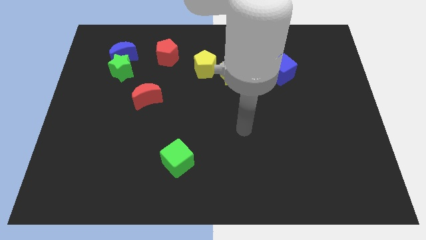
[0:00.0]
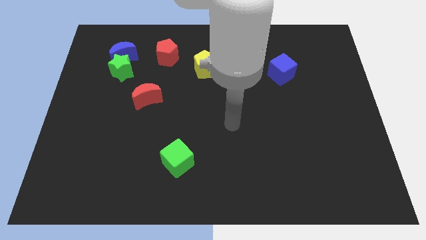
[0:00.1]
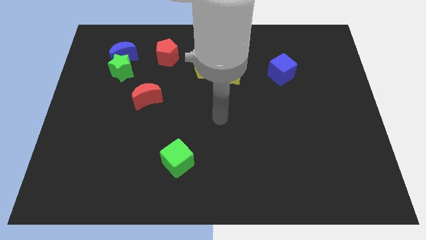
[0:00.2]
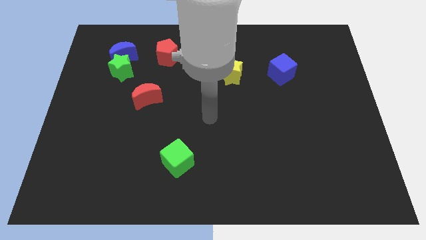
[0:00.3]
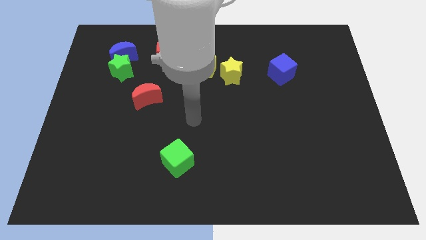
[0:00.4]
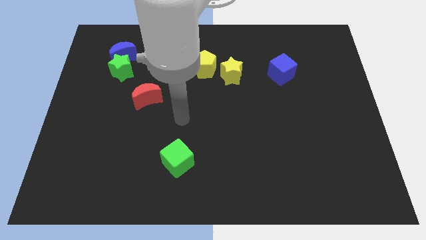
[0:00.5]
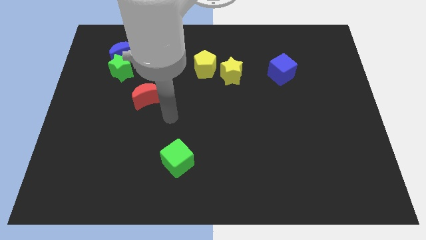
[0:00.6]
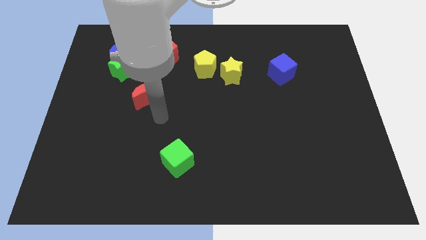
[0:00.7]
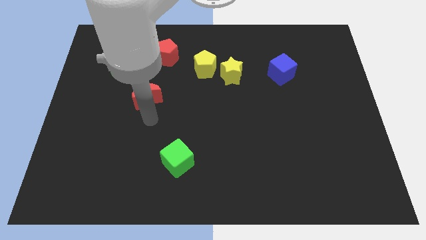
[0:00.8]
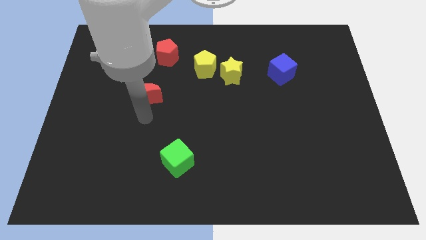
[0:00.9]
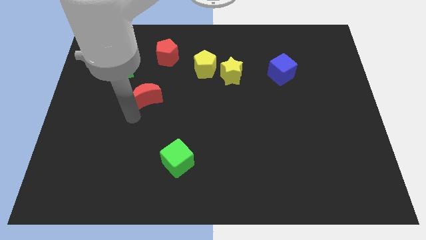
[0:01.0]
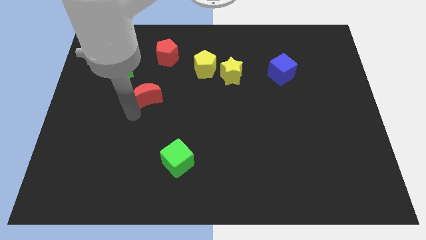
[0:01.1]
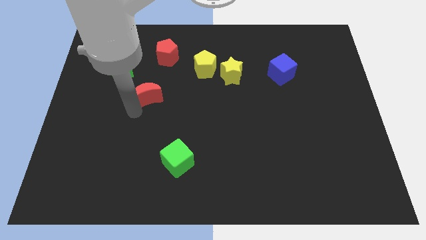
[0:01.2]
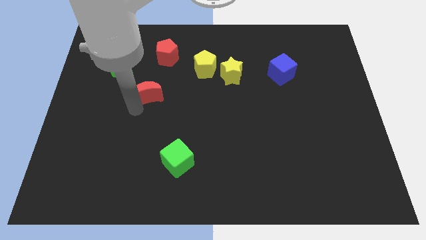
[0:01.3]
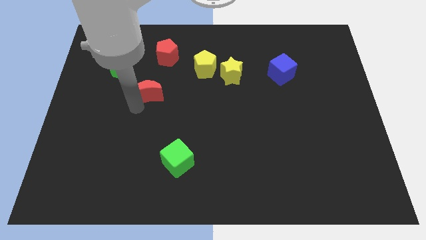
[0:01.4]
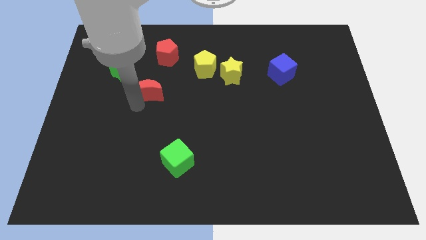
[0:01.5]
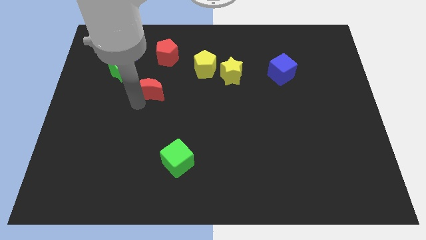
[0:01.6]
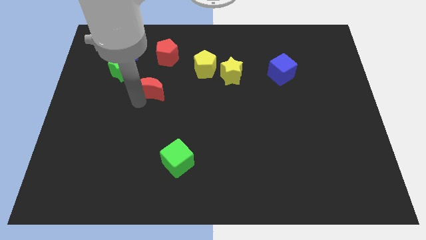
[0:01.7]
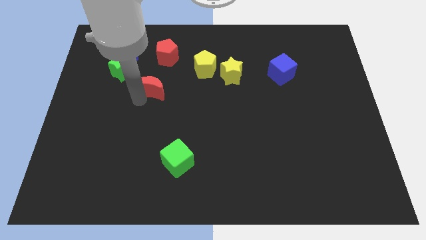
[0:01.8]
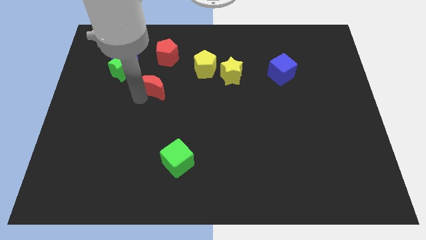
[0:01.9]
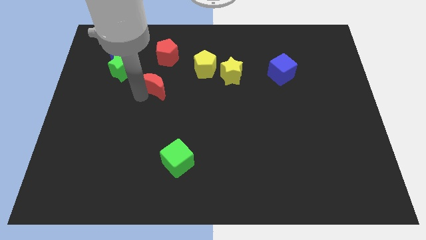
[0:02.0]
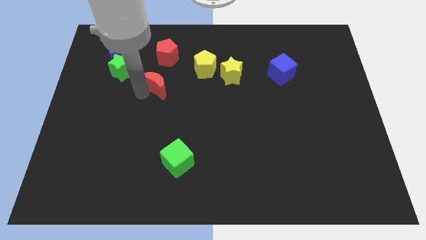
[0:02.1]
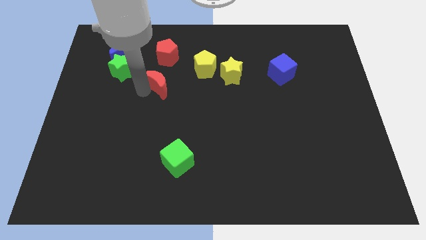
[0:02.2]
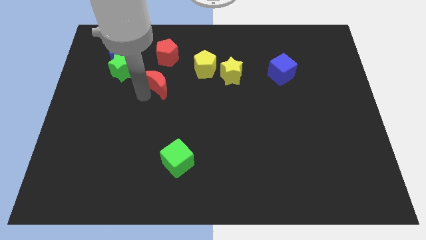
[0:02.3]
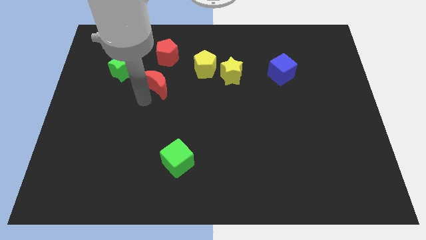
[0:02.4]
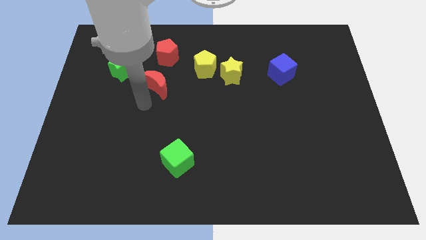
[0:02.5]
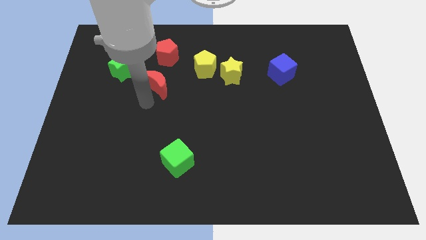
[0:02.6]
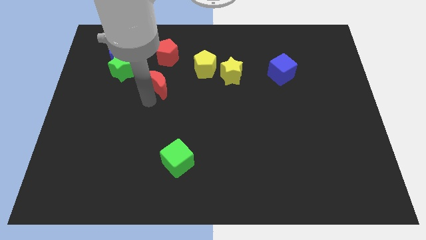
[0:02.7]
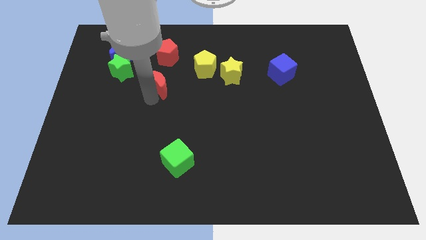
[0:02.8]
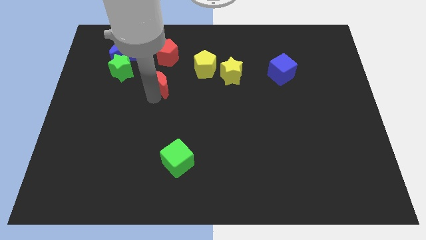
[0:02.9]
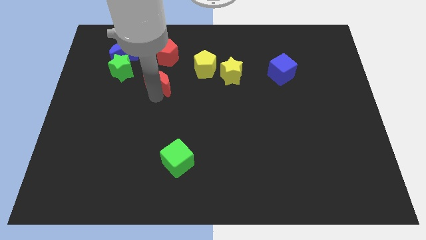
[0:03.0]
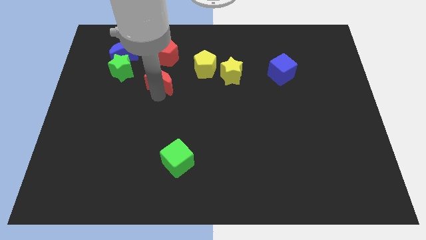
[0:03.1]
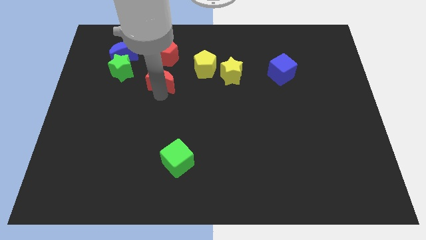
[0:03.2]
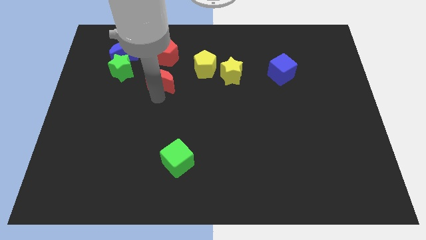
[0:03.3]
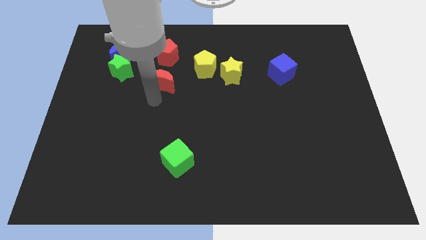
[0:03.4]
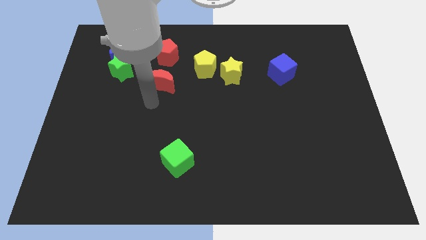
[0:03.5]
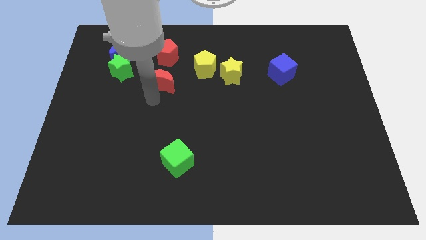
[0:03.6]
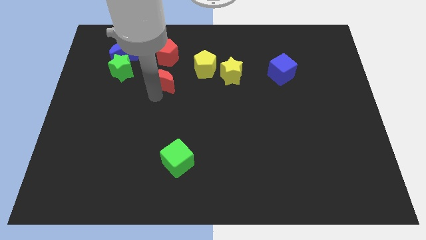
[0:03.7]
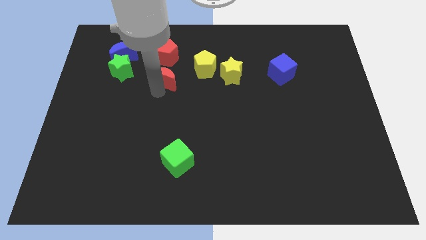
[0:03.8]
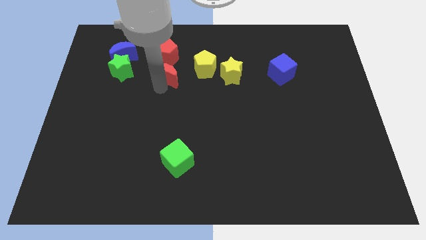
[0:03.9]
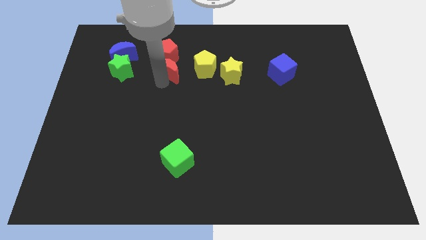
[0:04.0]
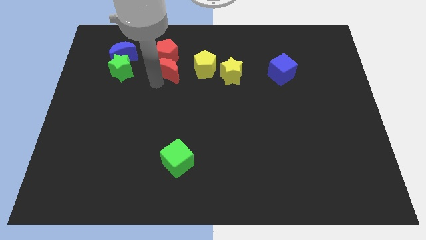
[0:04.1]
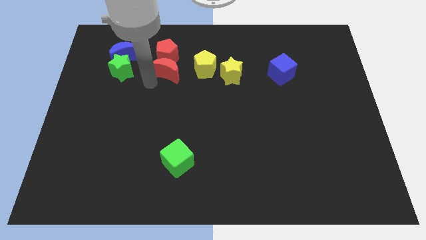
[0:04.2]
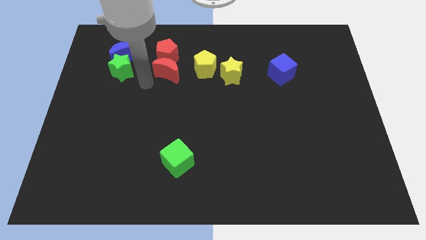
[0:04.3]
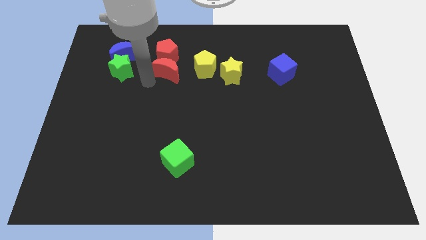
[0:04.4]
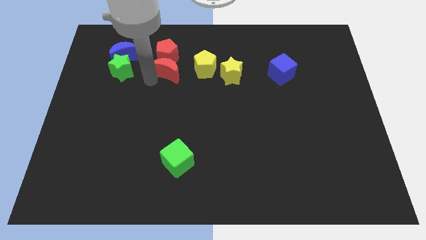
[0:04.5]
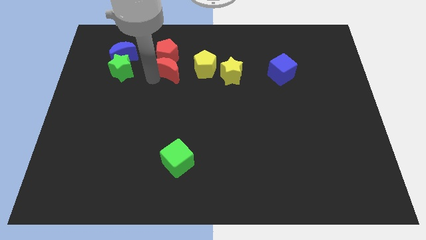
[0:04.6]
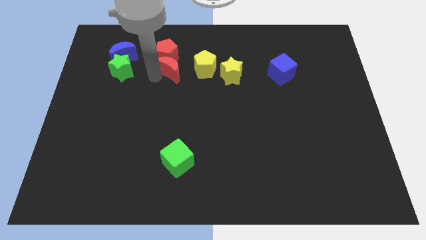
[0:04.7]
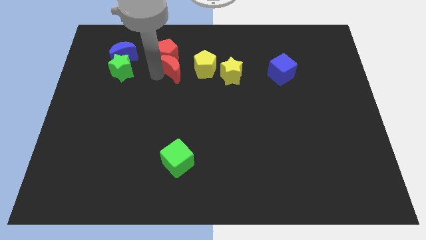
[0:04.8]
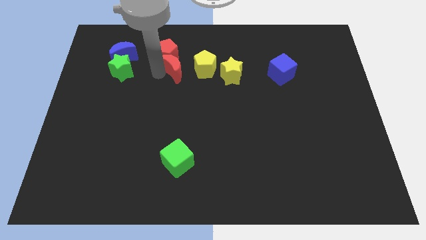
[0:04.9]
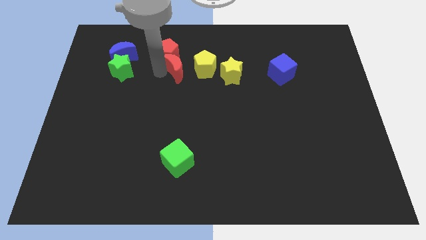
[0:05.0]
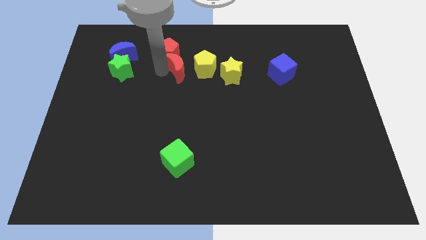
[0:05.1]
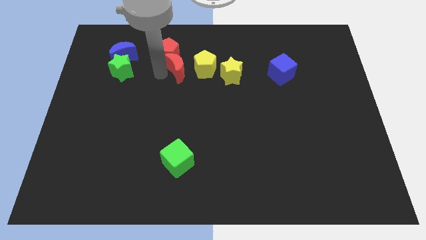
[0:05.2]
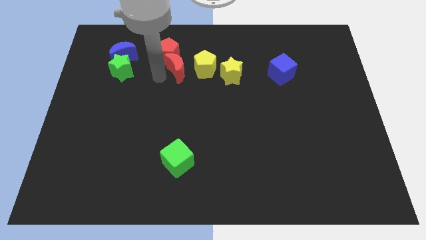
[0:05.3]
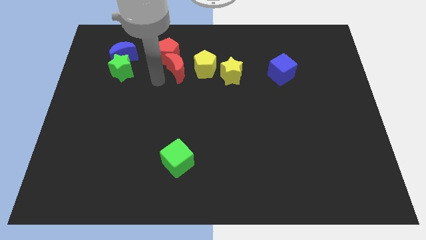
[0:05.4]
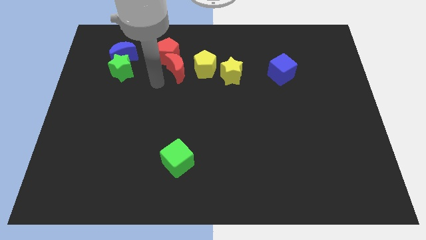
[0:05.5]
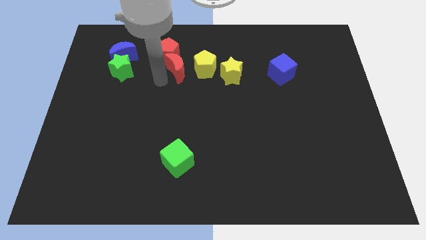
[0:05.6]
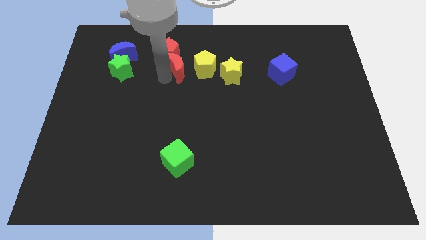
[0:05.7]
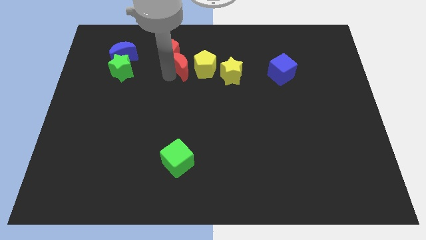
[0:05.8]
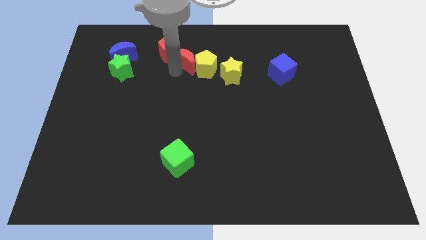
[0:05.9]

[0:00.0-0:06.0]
slide the red moon to the right side of the red pentagon

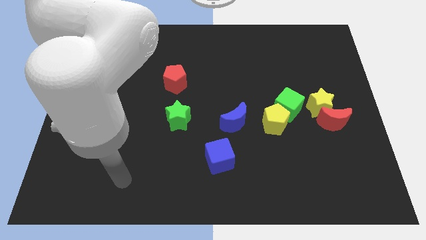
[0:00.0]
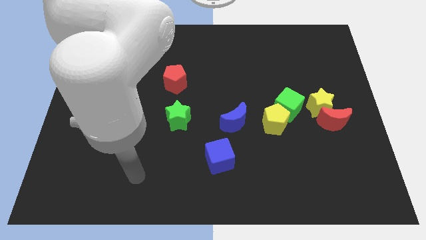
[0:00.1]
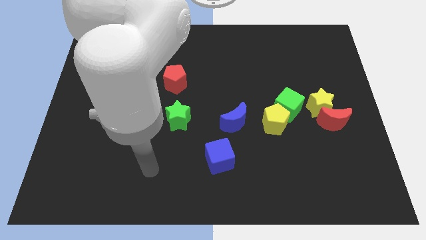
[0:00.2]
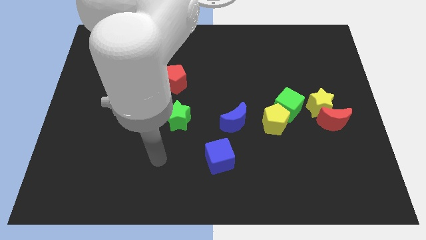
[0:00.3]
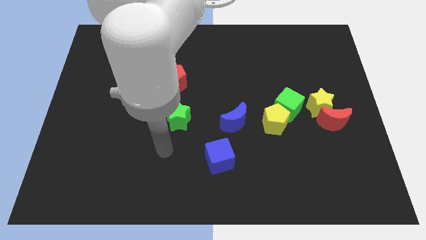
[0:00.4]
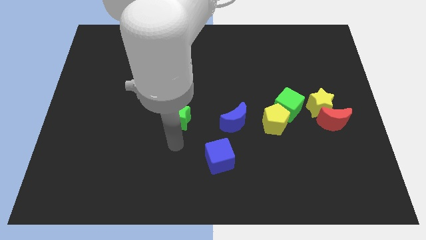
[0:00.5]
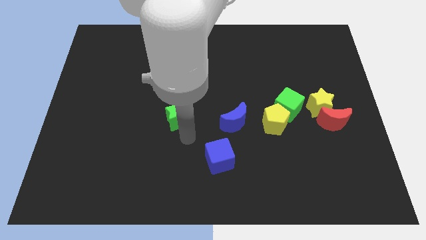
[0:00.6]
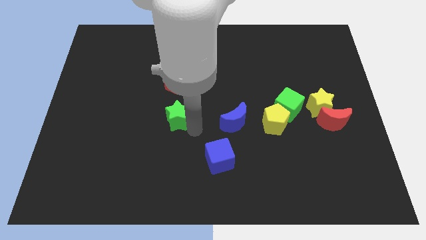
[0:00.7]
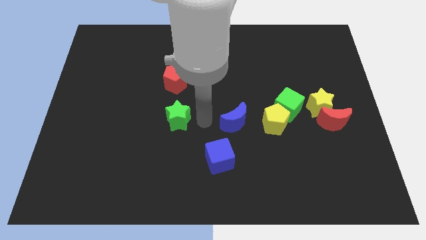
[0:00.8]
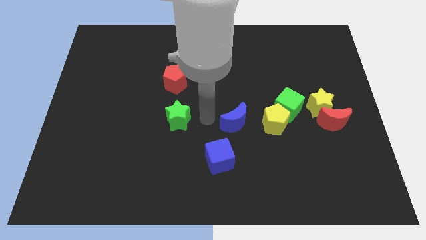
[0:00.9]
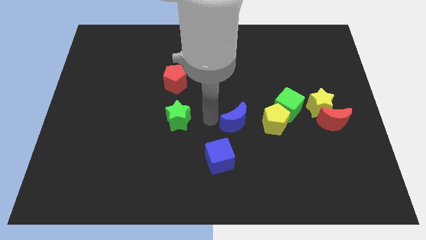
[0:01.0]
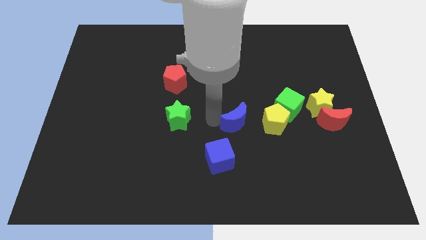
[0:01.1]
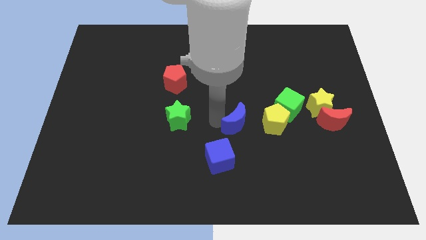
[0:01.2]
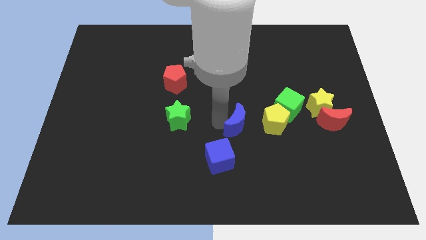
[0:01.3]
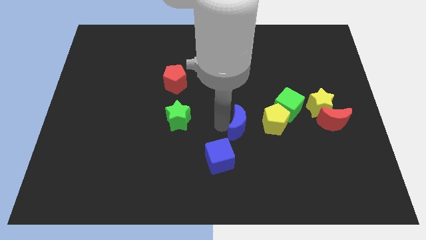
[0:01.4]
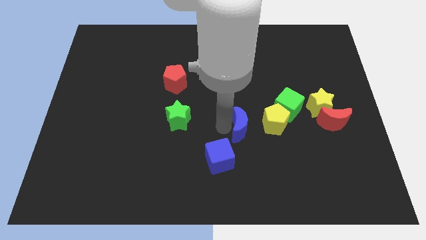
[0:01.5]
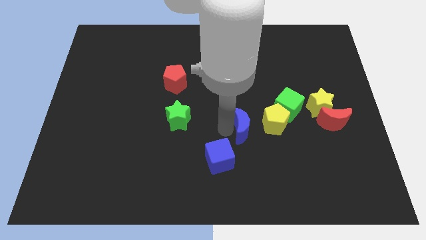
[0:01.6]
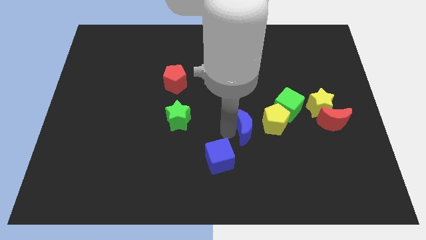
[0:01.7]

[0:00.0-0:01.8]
put the blue moon to the bottom left side of the green cube
